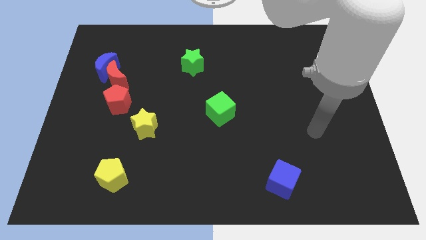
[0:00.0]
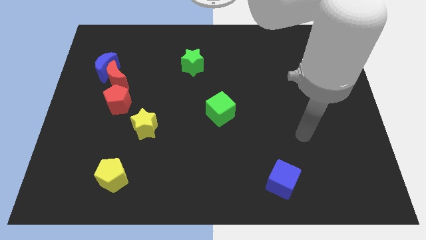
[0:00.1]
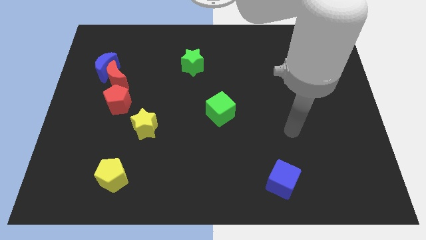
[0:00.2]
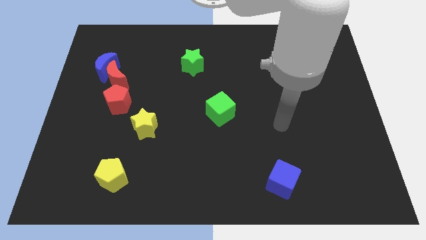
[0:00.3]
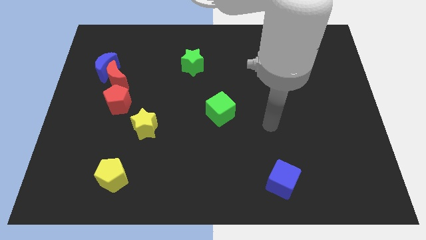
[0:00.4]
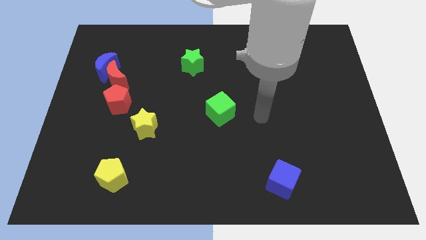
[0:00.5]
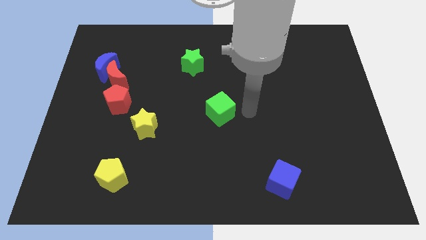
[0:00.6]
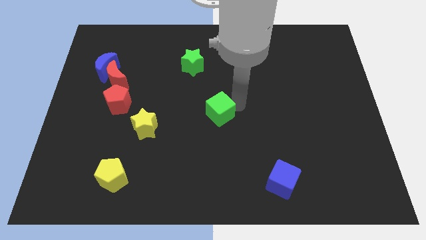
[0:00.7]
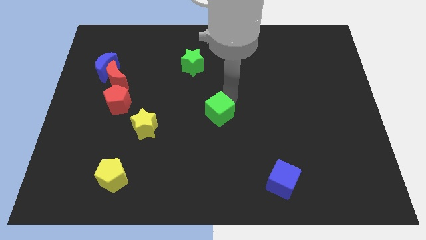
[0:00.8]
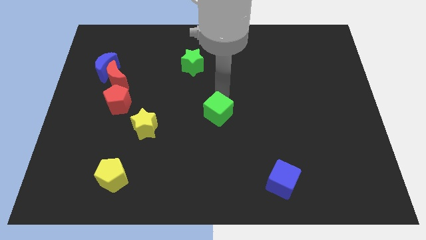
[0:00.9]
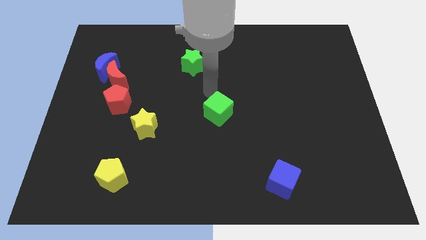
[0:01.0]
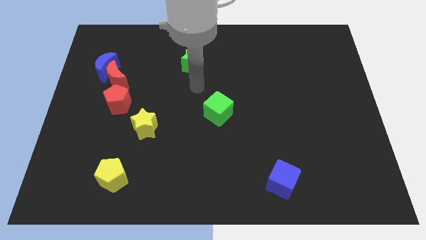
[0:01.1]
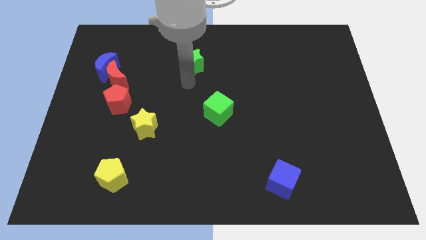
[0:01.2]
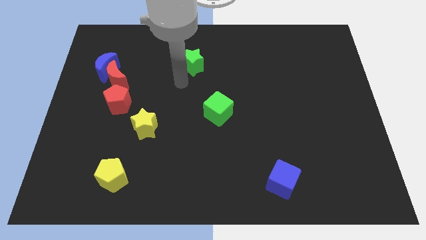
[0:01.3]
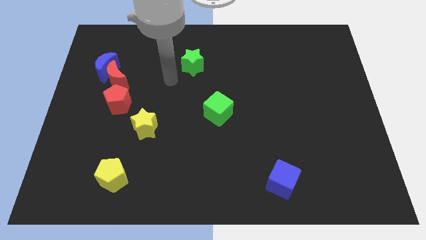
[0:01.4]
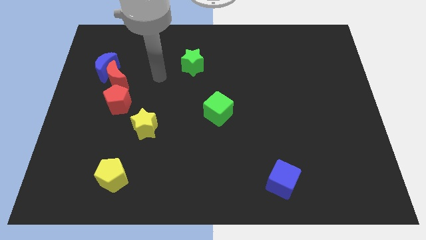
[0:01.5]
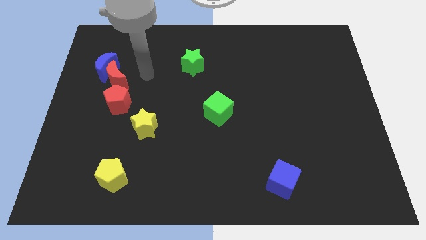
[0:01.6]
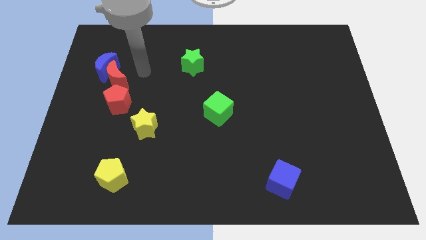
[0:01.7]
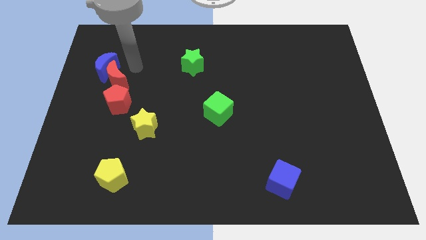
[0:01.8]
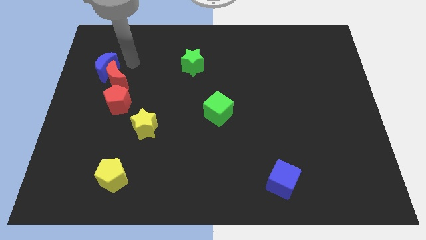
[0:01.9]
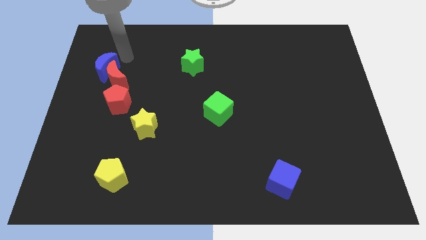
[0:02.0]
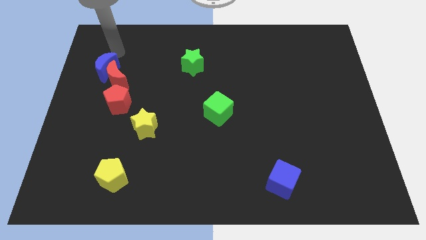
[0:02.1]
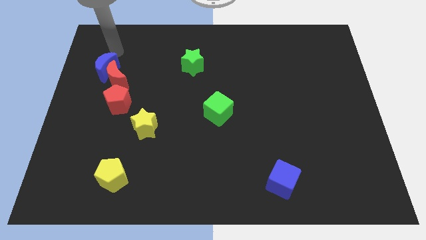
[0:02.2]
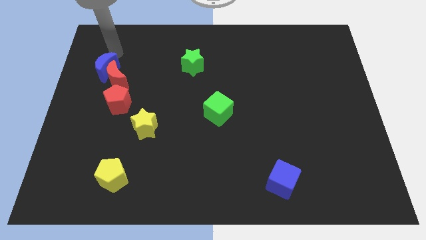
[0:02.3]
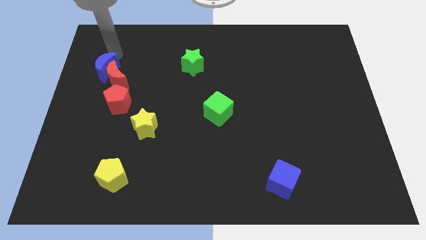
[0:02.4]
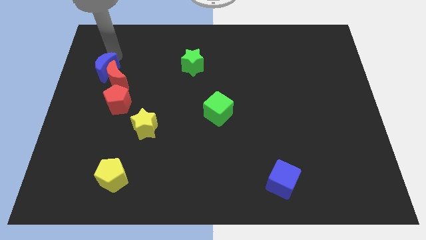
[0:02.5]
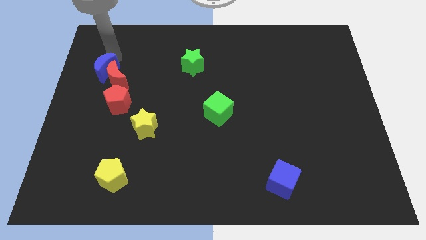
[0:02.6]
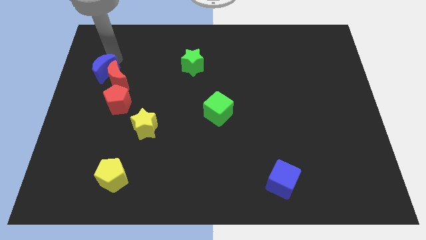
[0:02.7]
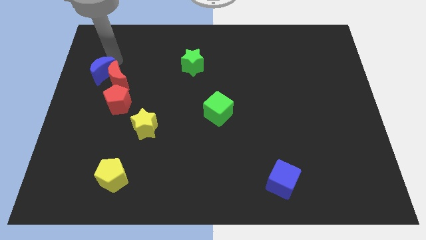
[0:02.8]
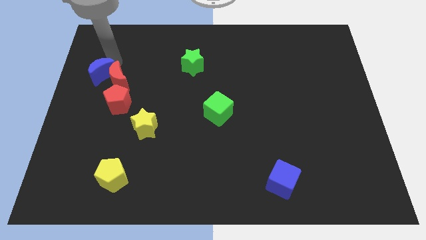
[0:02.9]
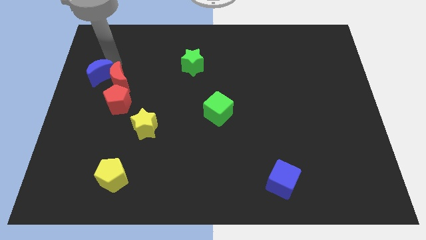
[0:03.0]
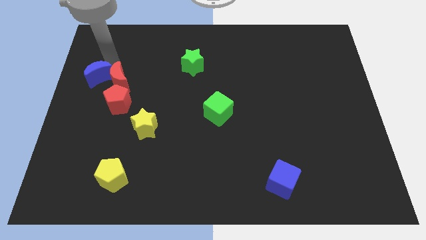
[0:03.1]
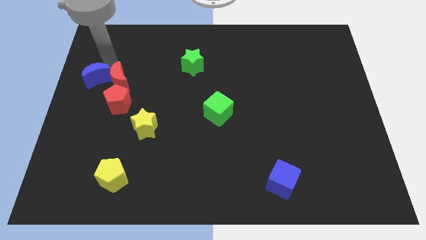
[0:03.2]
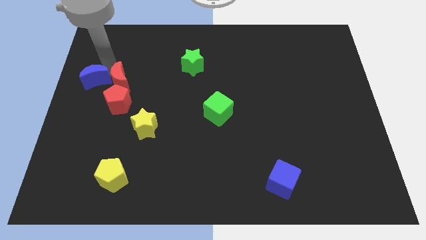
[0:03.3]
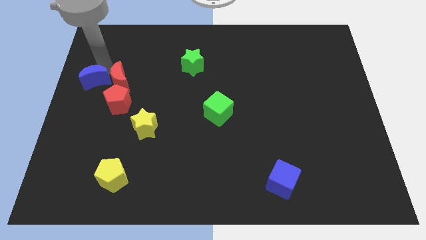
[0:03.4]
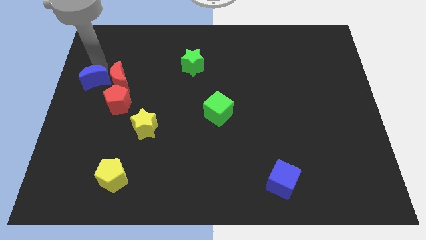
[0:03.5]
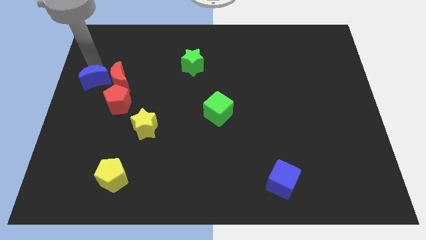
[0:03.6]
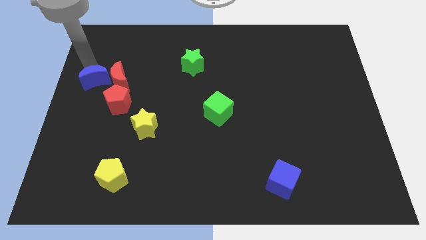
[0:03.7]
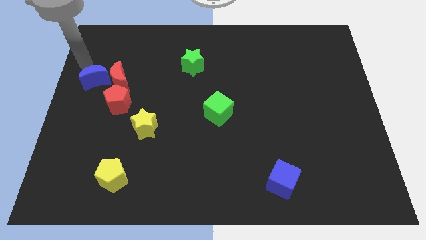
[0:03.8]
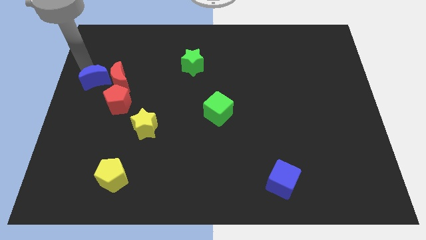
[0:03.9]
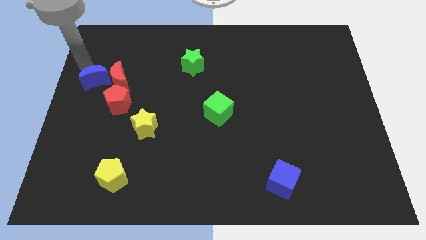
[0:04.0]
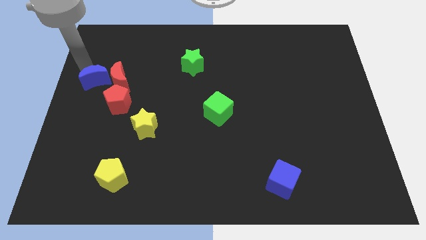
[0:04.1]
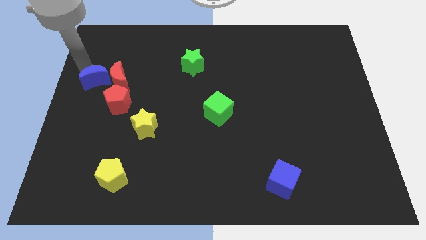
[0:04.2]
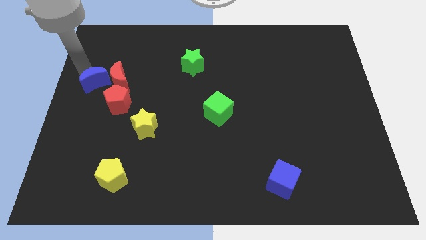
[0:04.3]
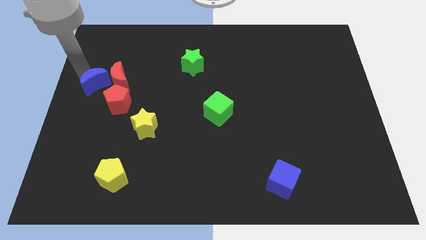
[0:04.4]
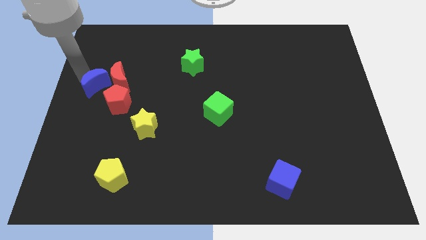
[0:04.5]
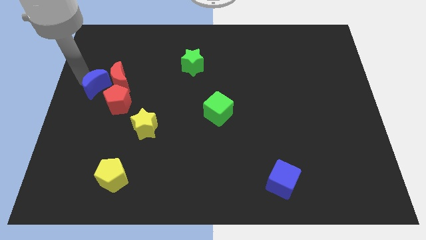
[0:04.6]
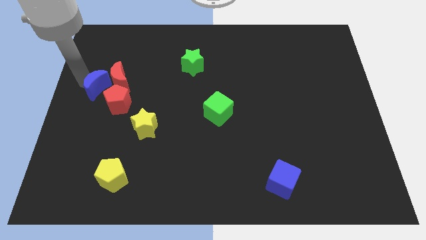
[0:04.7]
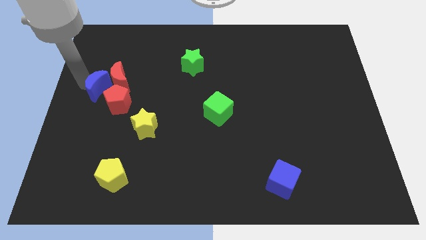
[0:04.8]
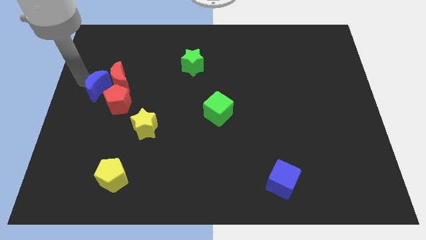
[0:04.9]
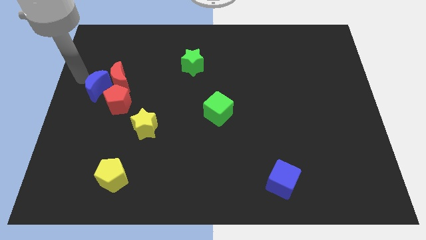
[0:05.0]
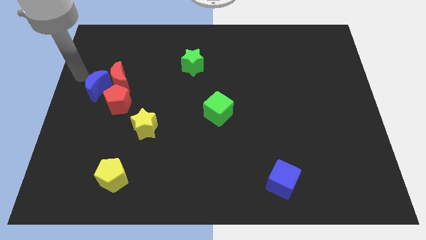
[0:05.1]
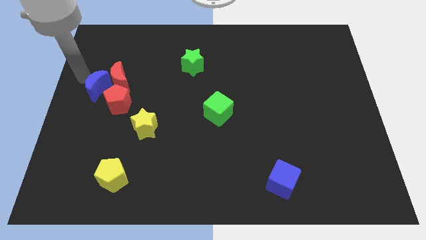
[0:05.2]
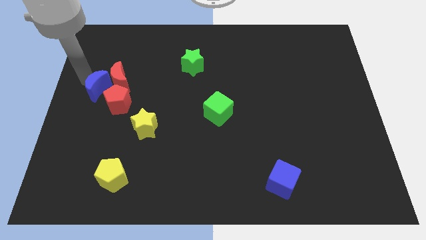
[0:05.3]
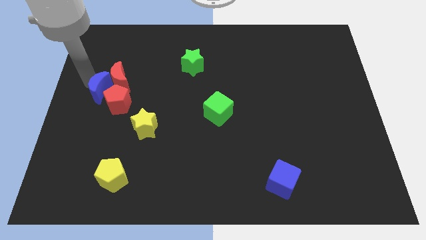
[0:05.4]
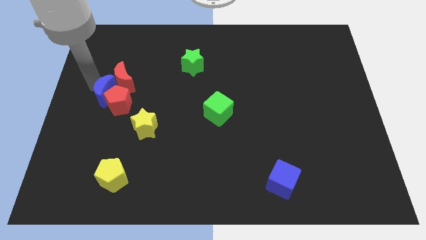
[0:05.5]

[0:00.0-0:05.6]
slide the blue moon to the red pentagon

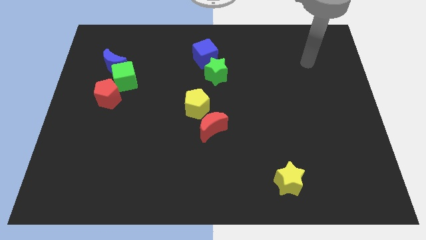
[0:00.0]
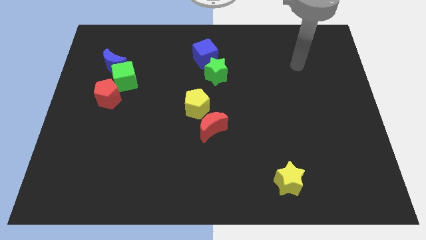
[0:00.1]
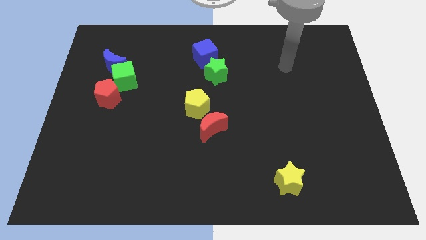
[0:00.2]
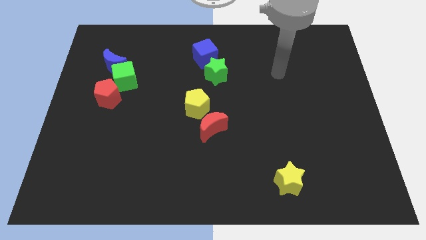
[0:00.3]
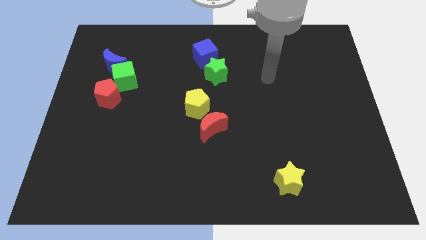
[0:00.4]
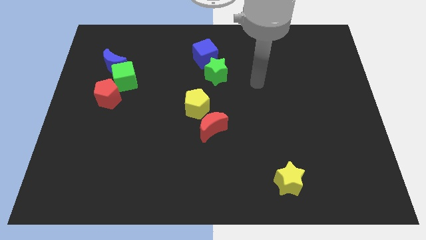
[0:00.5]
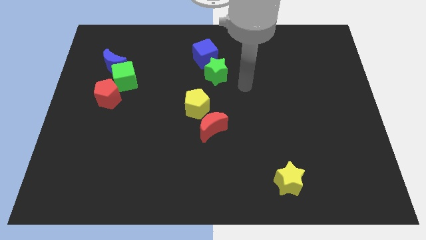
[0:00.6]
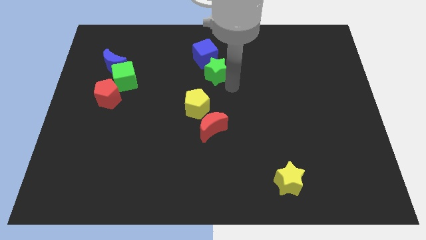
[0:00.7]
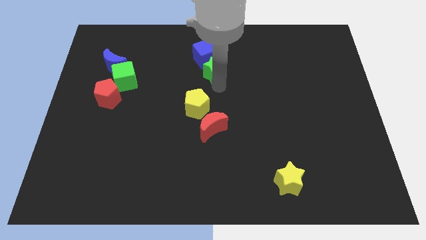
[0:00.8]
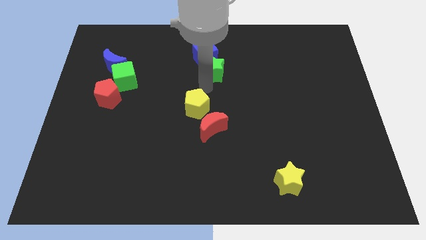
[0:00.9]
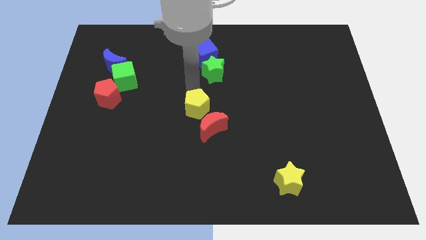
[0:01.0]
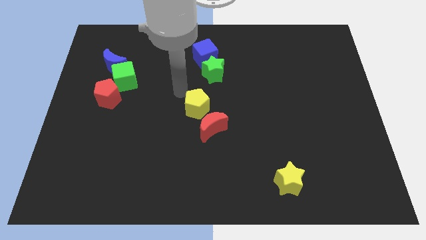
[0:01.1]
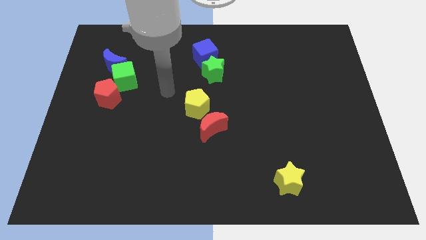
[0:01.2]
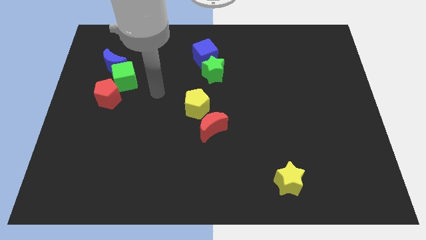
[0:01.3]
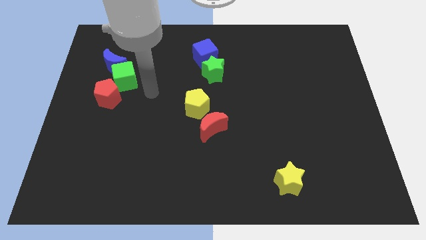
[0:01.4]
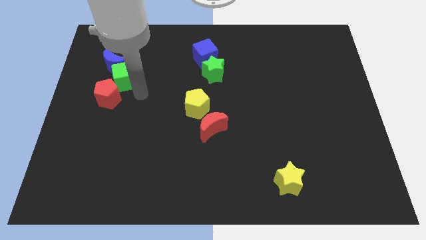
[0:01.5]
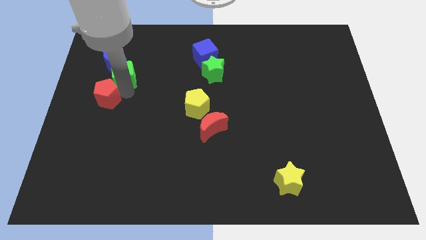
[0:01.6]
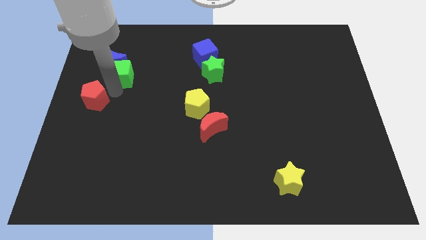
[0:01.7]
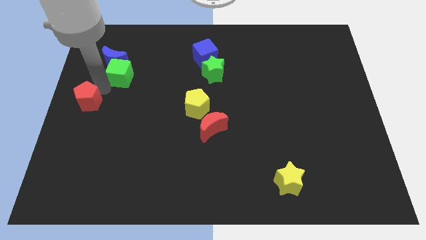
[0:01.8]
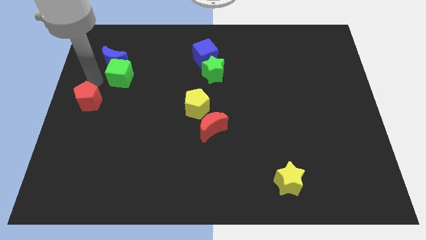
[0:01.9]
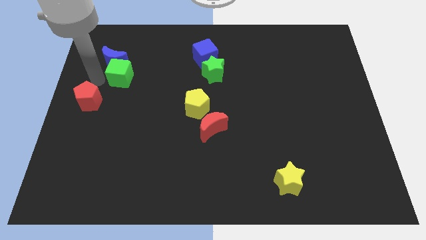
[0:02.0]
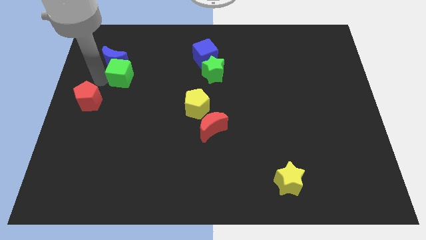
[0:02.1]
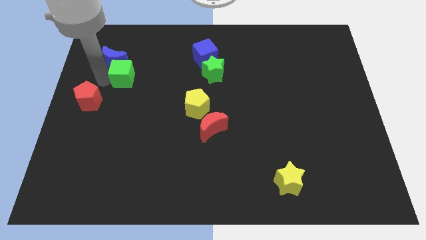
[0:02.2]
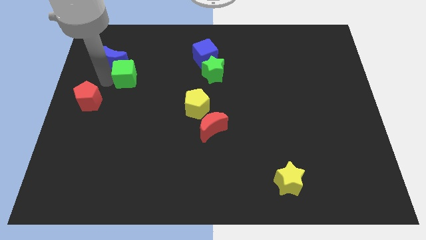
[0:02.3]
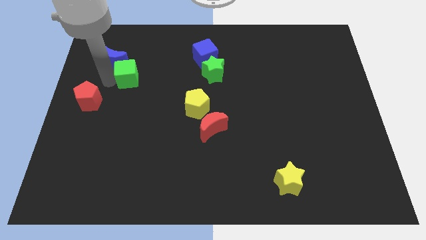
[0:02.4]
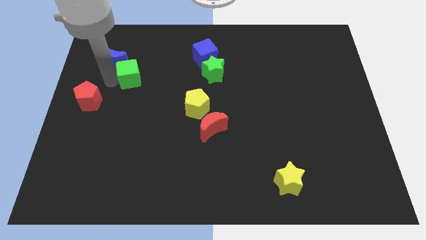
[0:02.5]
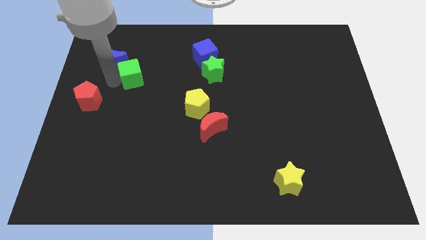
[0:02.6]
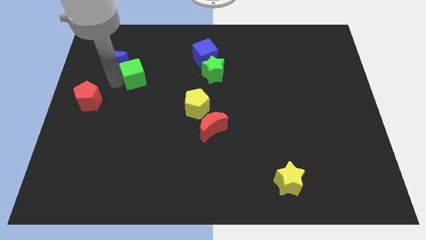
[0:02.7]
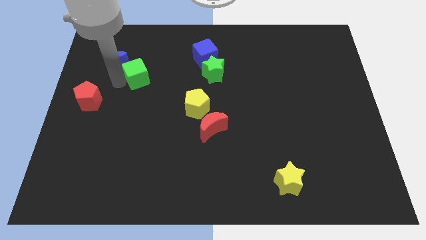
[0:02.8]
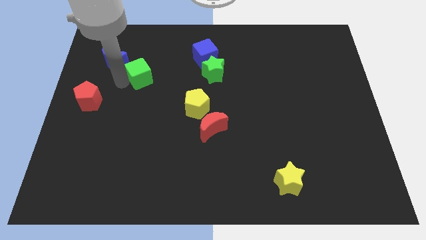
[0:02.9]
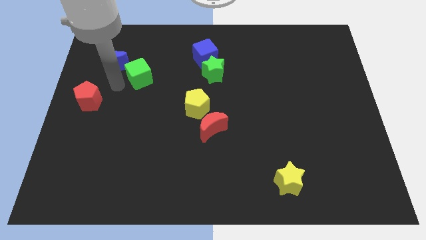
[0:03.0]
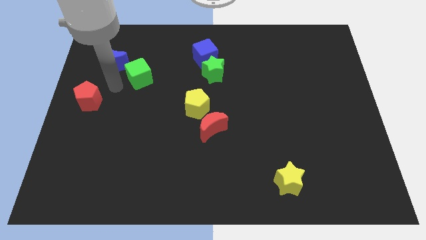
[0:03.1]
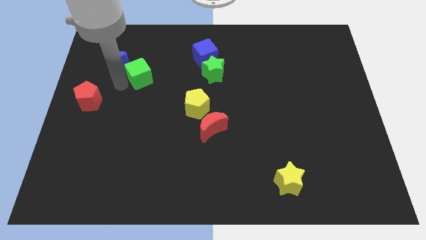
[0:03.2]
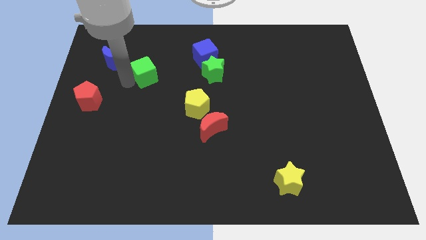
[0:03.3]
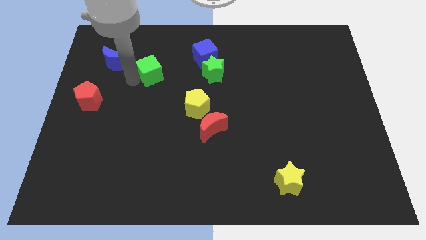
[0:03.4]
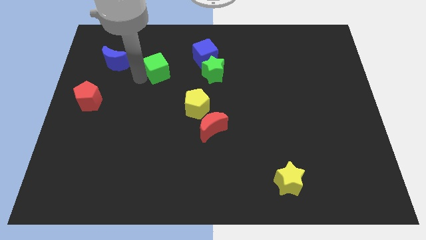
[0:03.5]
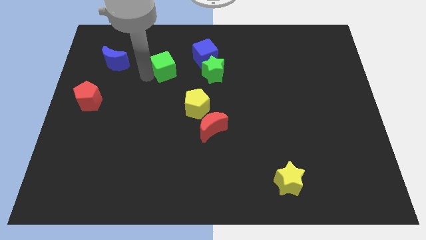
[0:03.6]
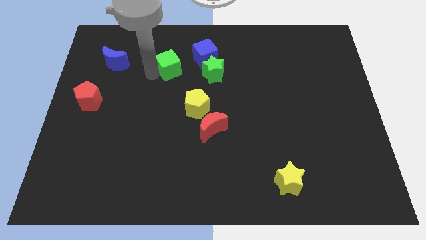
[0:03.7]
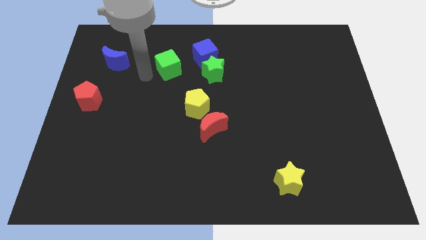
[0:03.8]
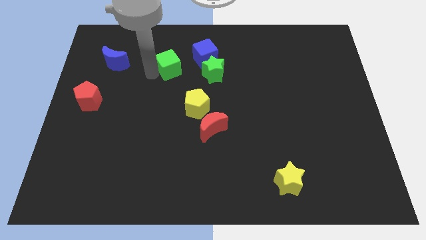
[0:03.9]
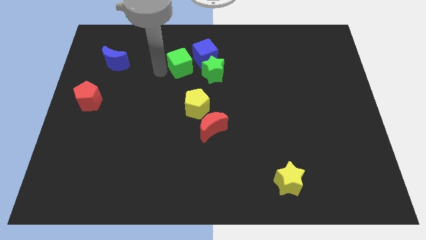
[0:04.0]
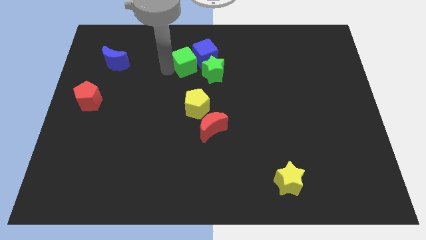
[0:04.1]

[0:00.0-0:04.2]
move the green cube to the blue cube
